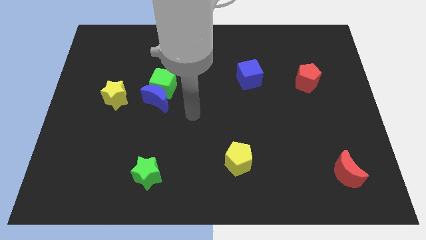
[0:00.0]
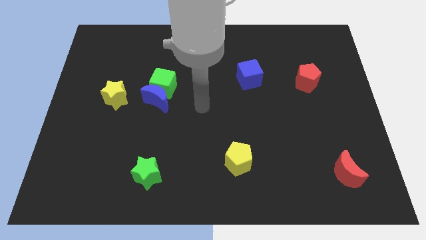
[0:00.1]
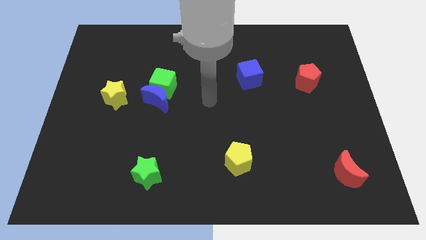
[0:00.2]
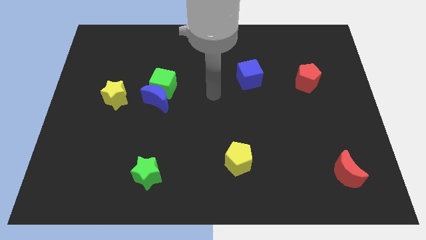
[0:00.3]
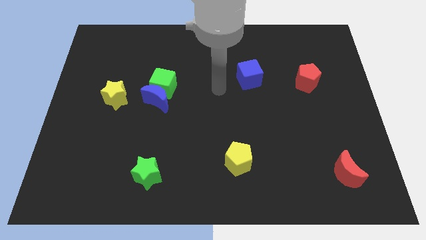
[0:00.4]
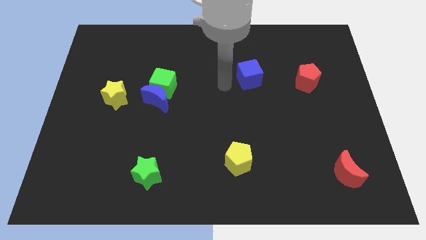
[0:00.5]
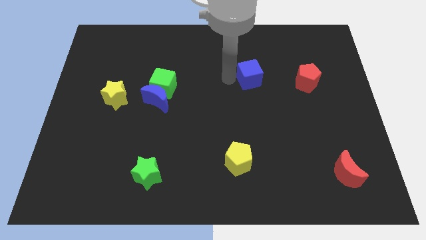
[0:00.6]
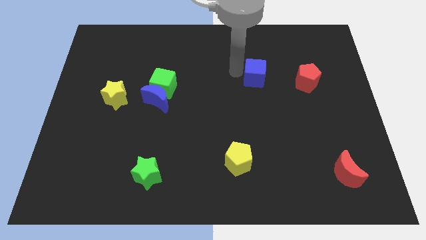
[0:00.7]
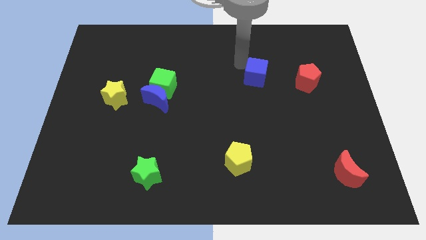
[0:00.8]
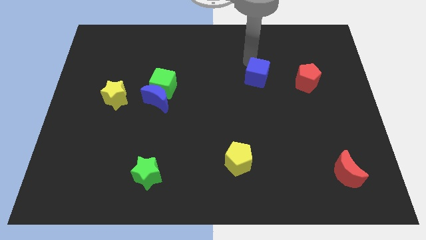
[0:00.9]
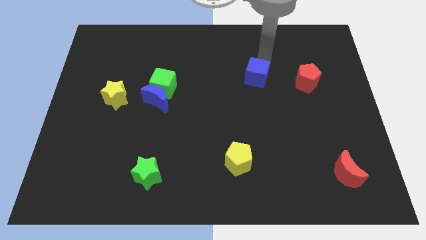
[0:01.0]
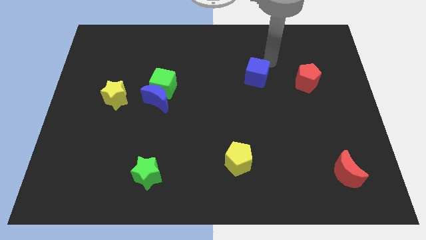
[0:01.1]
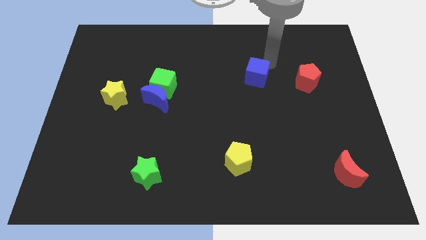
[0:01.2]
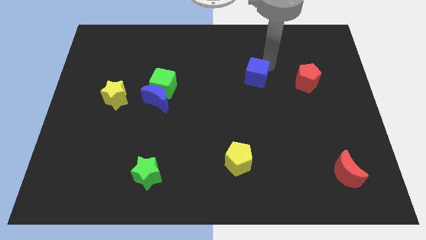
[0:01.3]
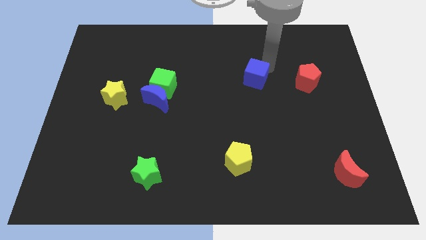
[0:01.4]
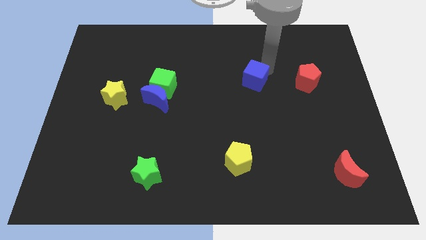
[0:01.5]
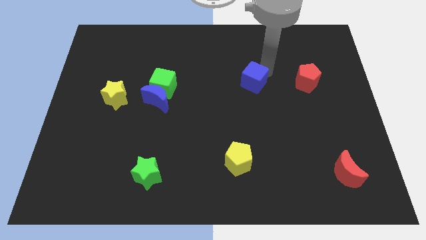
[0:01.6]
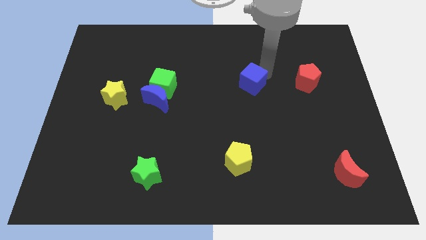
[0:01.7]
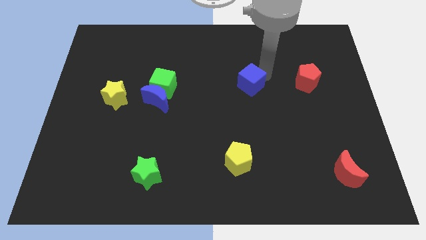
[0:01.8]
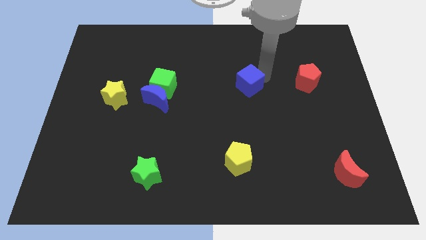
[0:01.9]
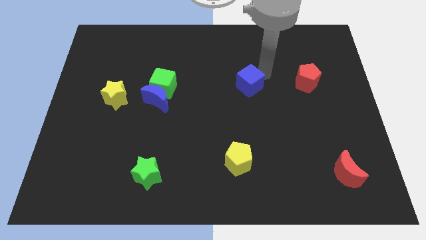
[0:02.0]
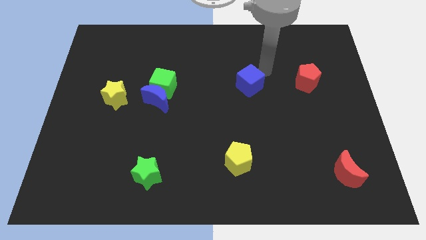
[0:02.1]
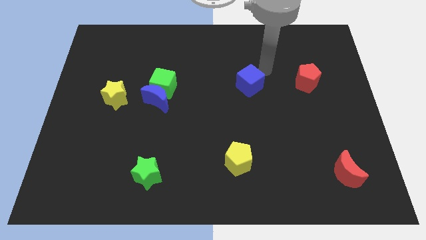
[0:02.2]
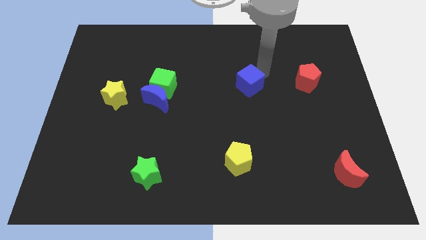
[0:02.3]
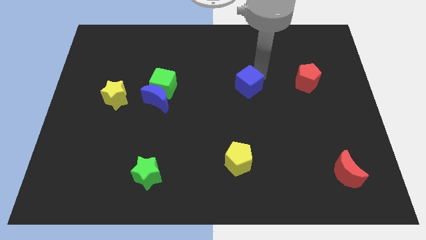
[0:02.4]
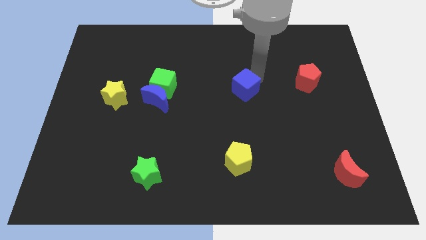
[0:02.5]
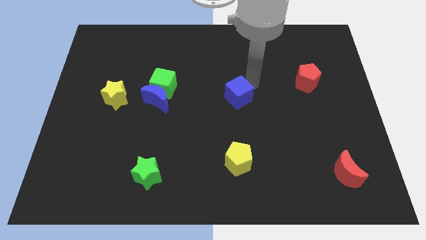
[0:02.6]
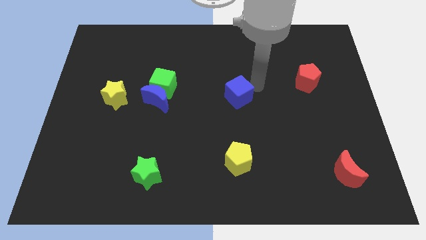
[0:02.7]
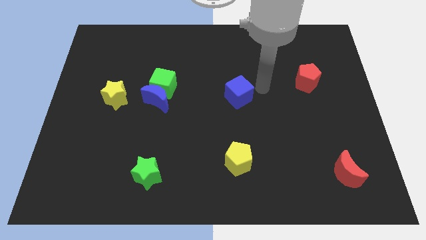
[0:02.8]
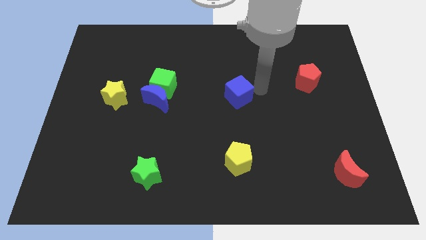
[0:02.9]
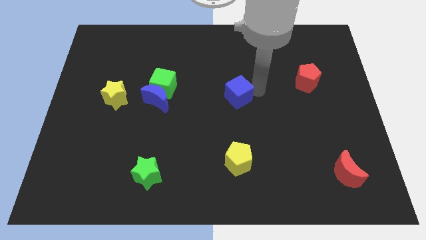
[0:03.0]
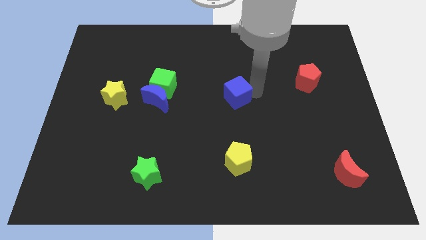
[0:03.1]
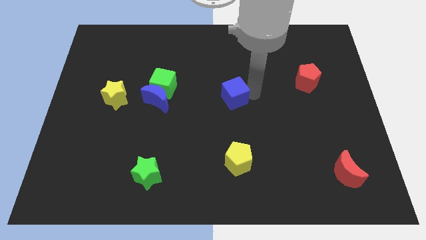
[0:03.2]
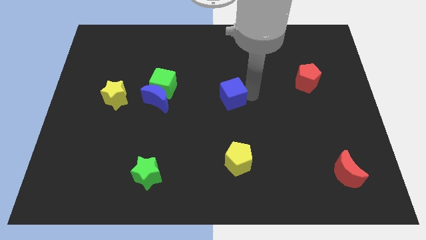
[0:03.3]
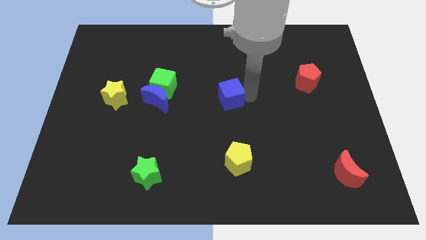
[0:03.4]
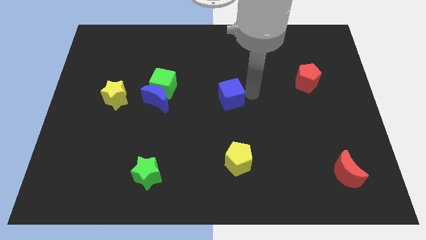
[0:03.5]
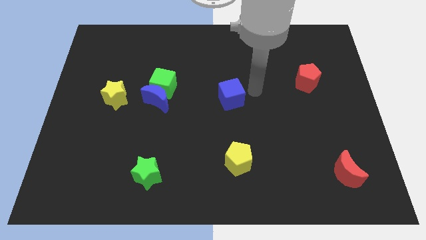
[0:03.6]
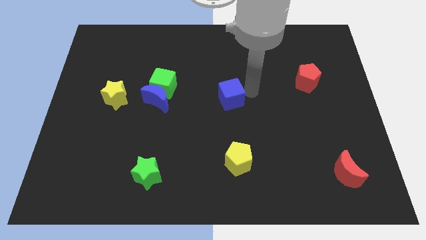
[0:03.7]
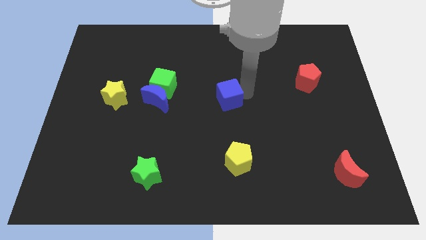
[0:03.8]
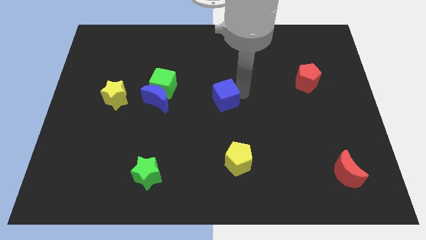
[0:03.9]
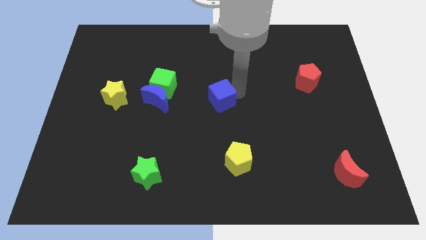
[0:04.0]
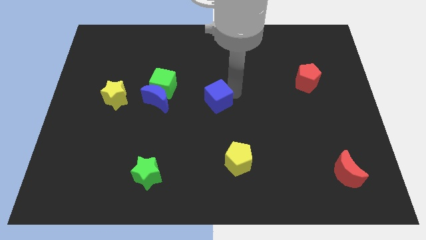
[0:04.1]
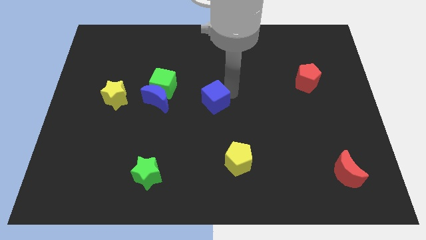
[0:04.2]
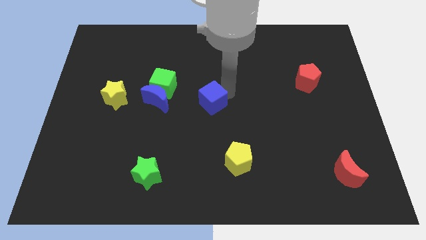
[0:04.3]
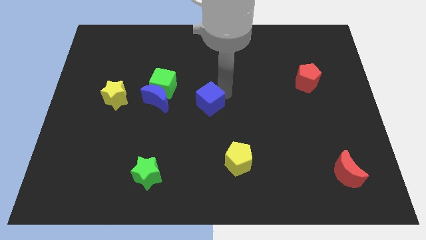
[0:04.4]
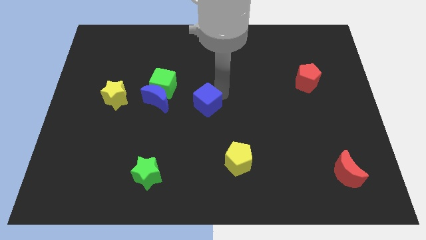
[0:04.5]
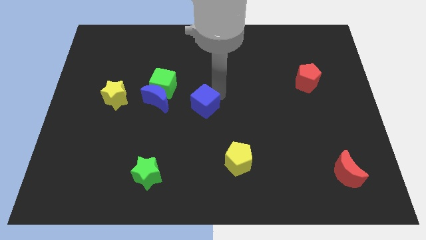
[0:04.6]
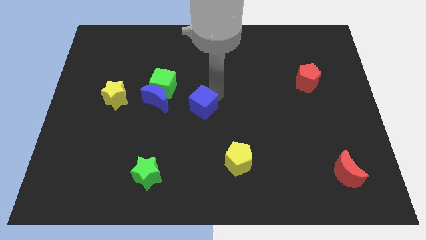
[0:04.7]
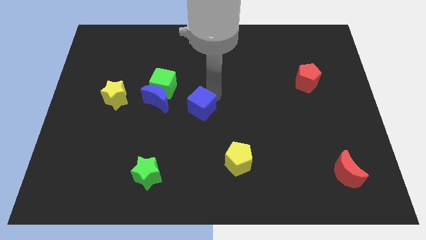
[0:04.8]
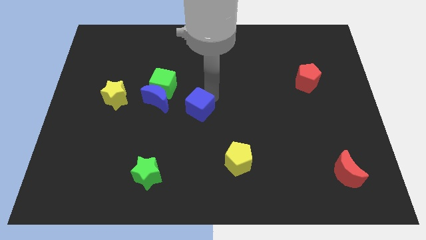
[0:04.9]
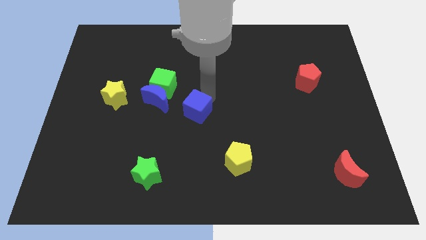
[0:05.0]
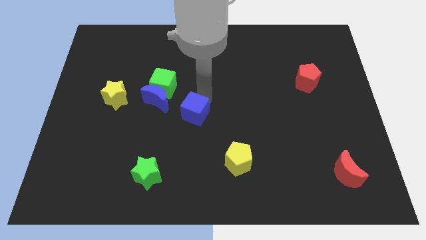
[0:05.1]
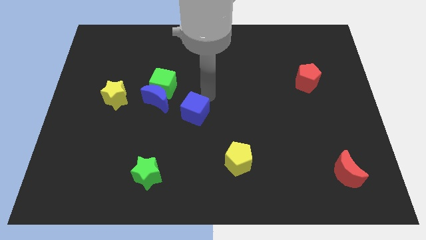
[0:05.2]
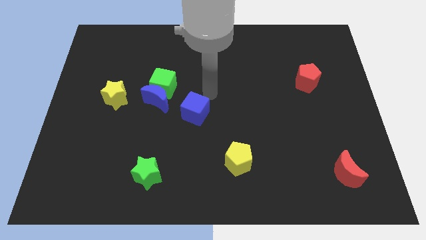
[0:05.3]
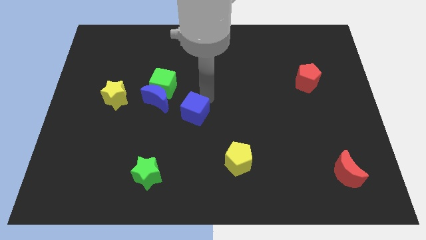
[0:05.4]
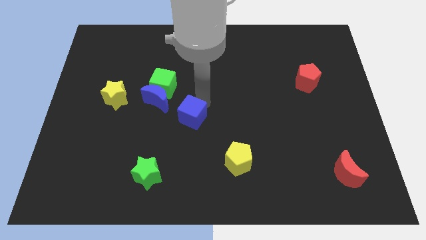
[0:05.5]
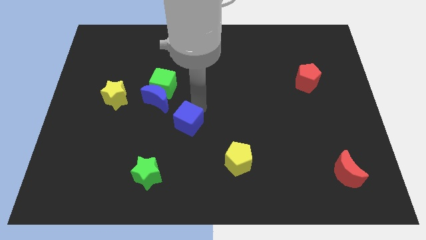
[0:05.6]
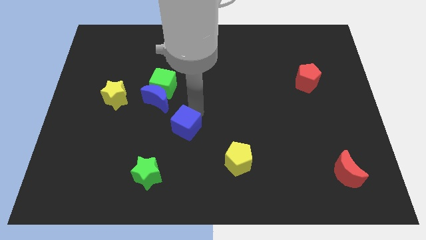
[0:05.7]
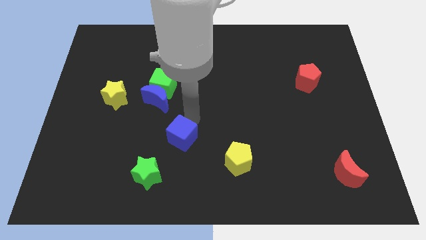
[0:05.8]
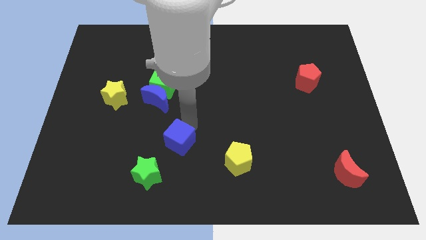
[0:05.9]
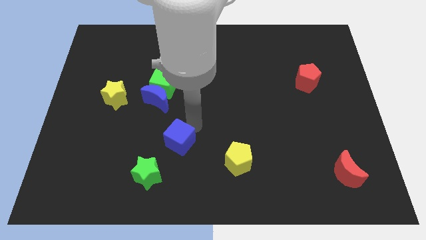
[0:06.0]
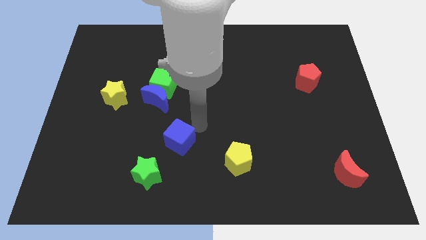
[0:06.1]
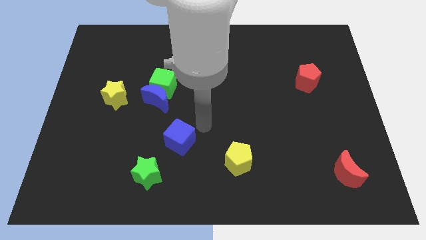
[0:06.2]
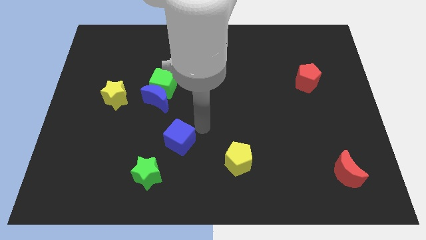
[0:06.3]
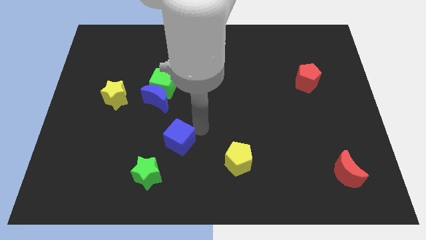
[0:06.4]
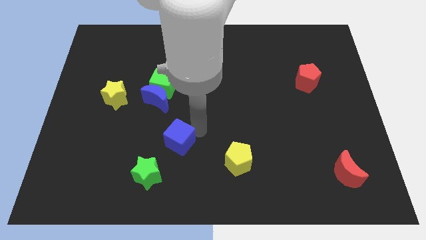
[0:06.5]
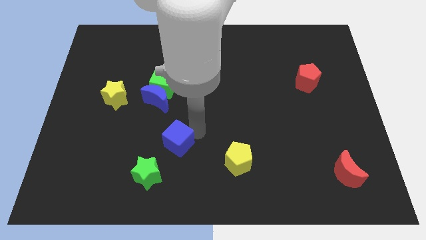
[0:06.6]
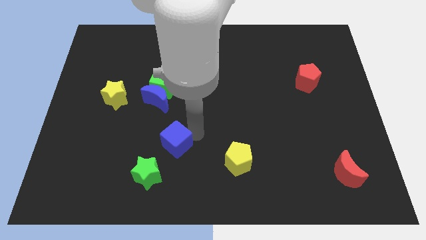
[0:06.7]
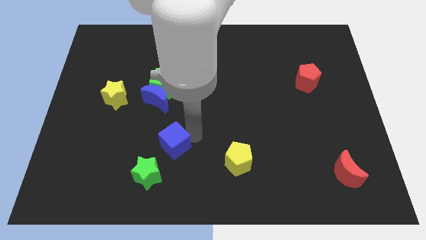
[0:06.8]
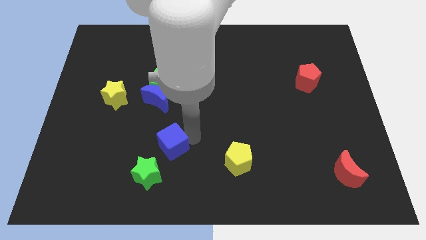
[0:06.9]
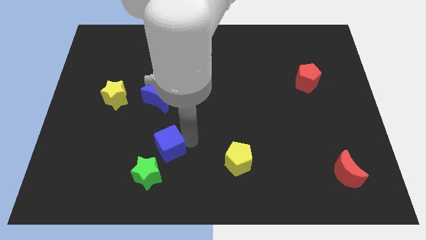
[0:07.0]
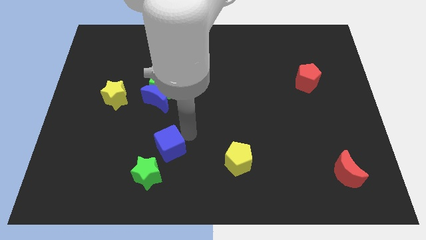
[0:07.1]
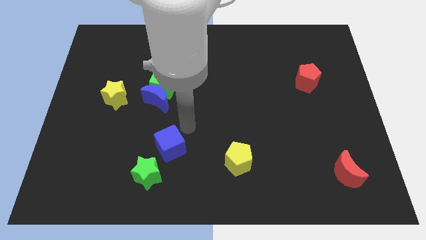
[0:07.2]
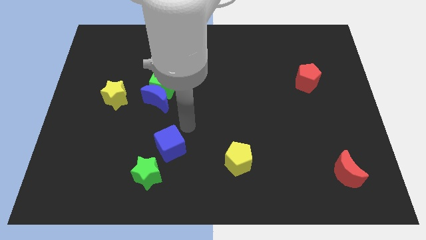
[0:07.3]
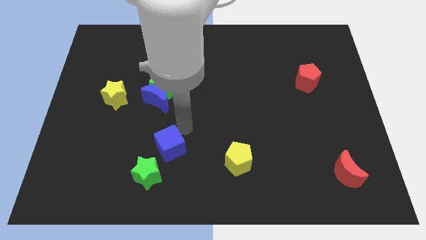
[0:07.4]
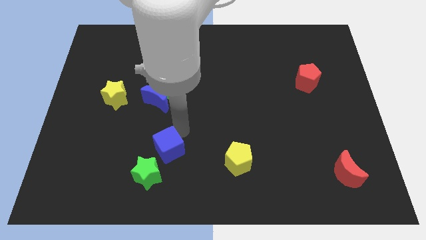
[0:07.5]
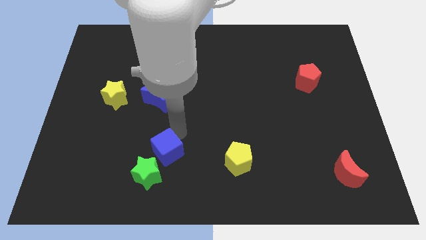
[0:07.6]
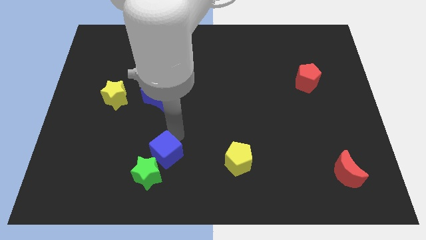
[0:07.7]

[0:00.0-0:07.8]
slide the blue cube towards the green star
